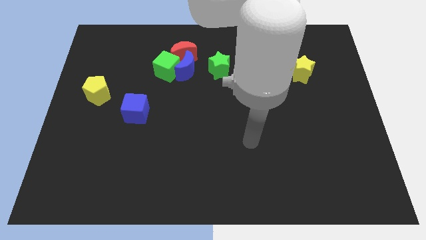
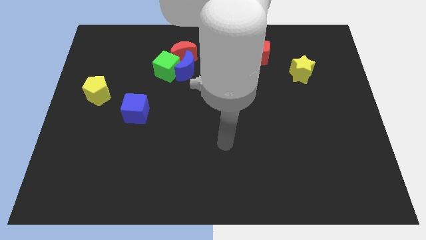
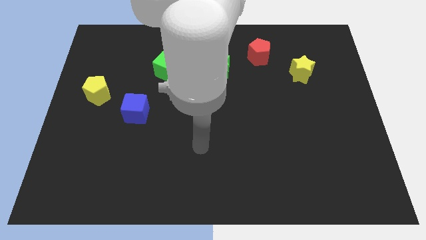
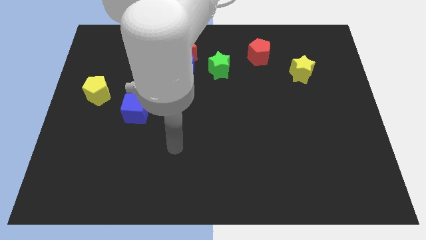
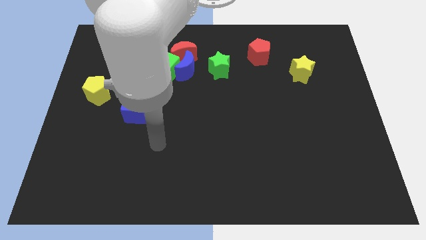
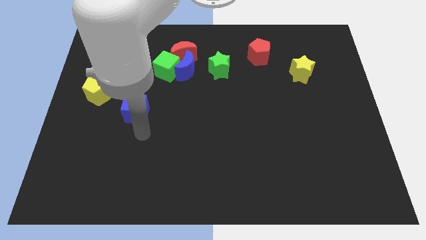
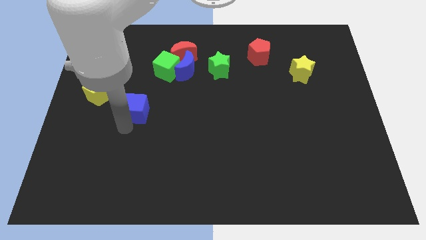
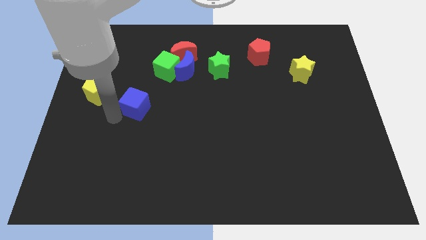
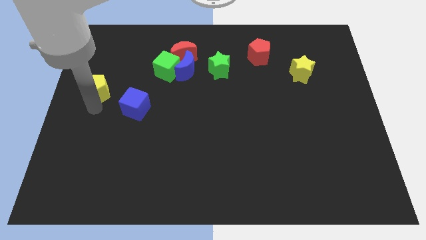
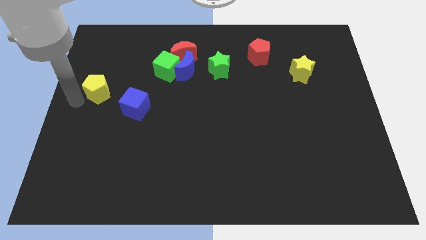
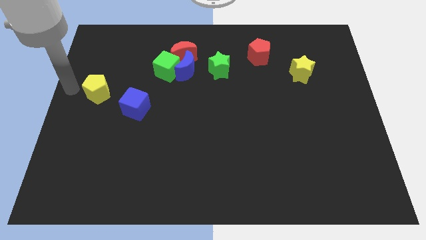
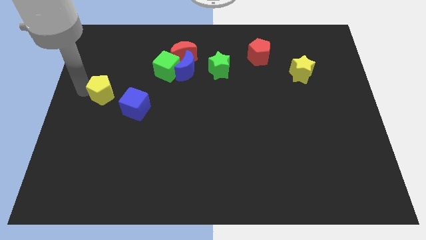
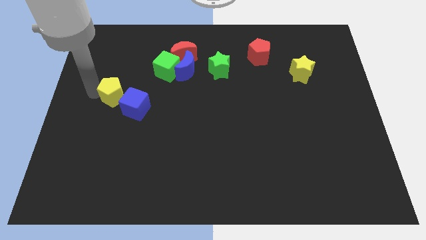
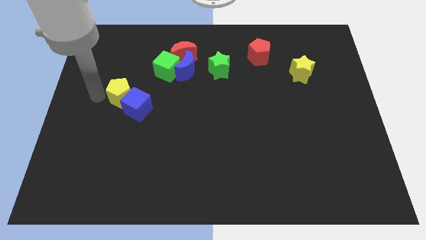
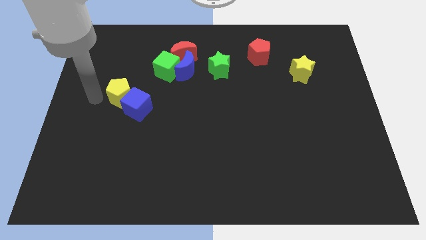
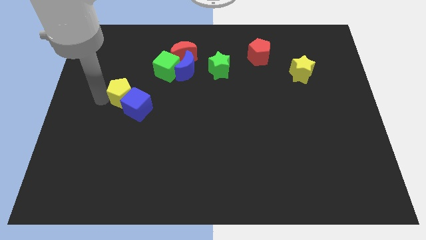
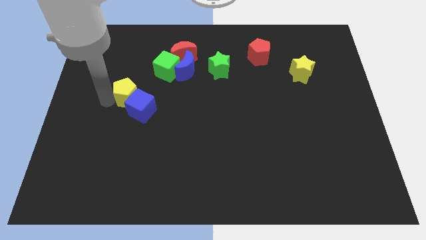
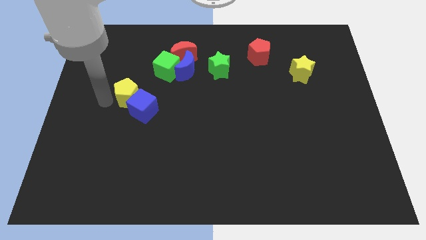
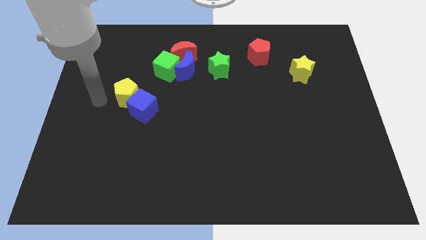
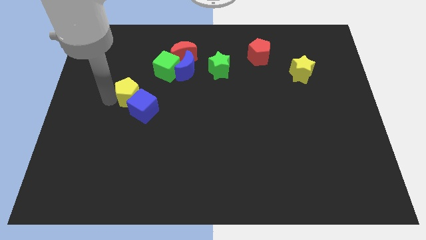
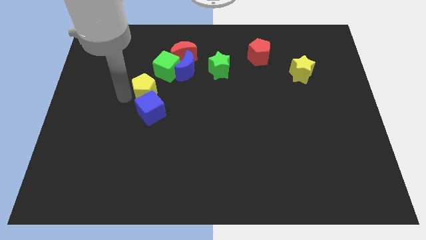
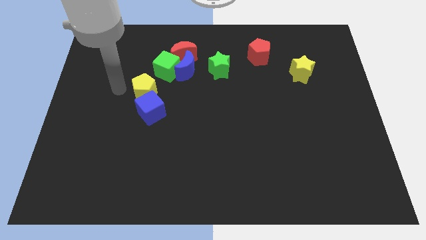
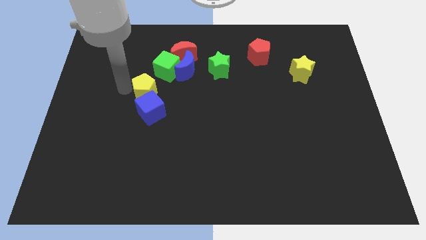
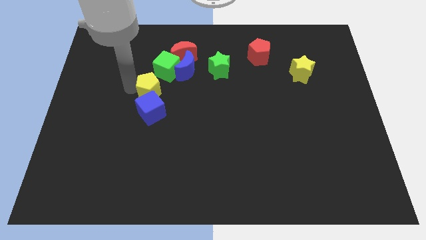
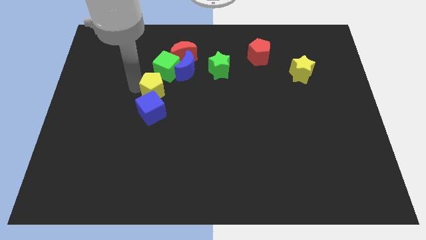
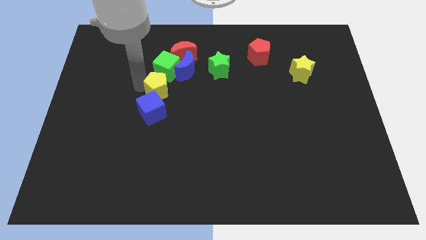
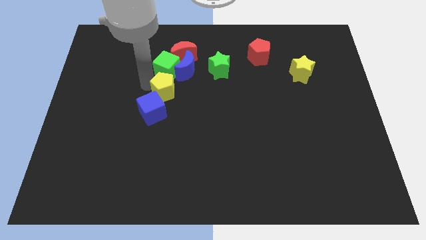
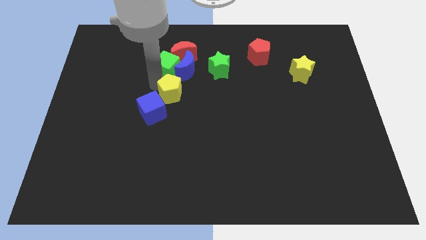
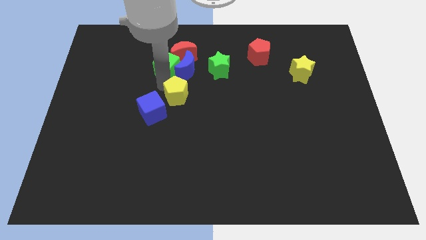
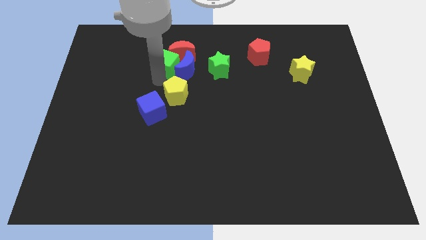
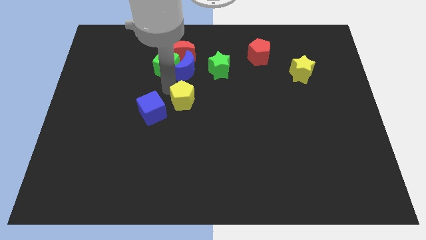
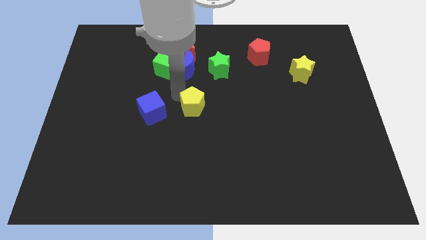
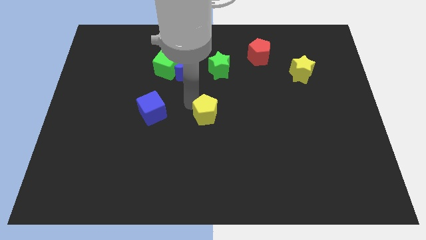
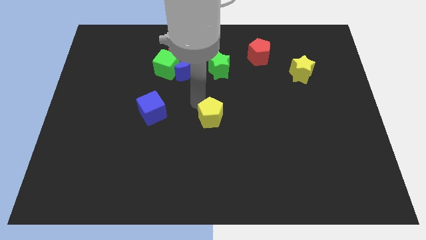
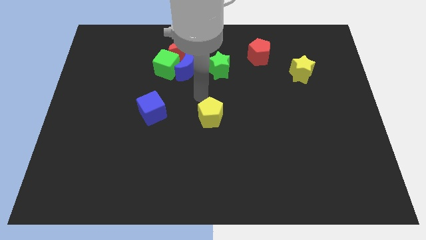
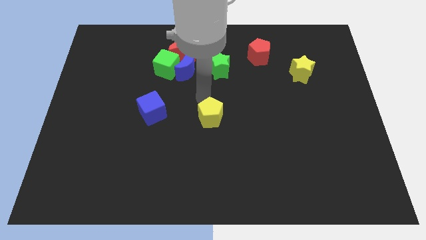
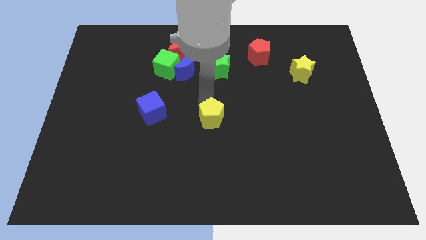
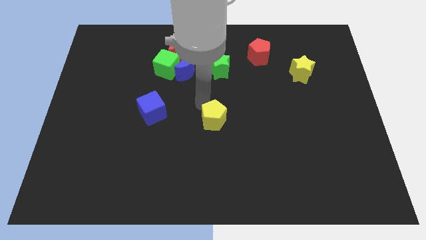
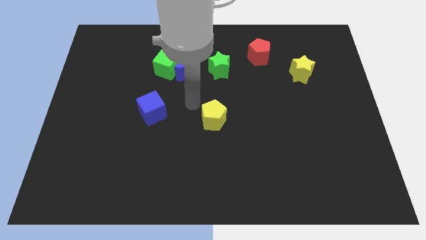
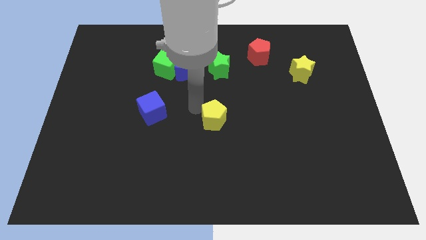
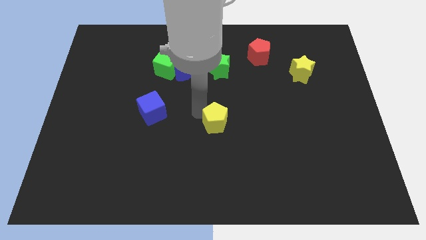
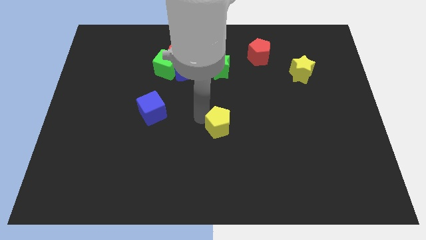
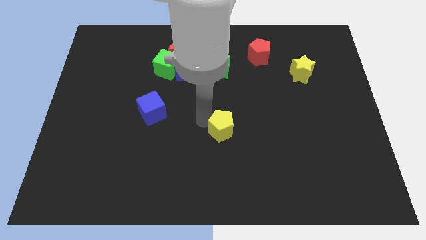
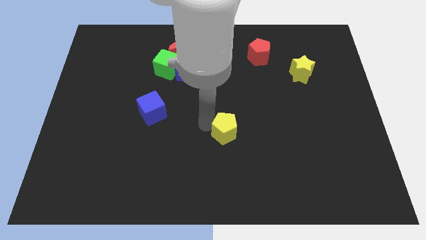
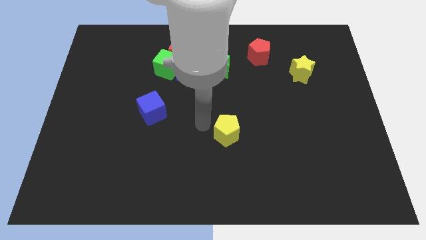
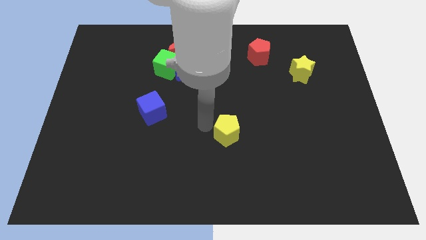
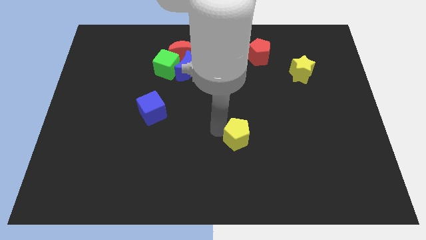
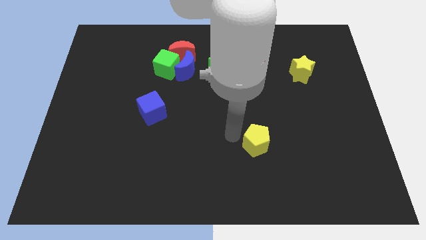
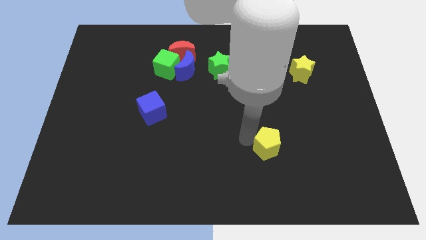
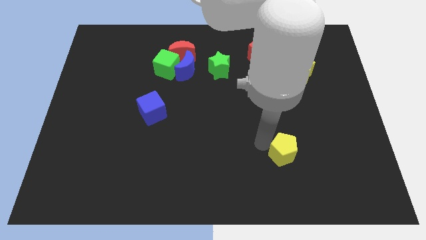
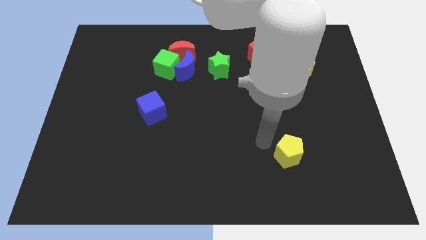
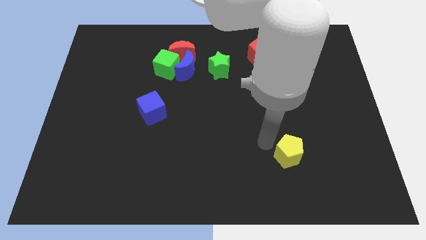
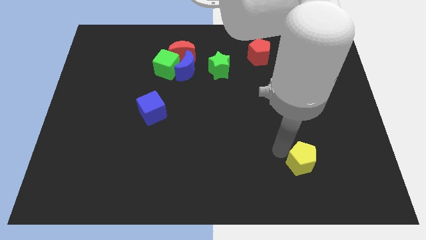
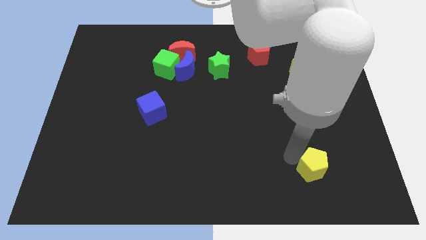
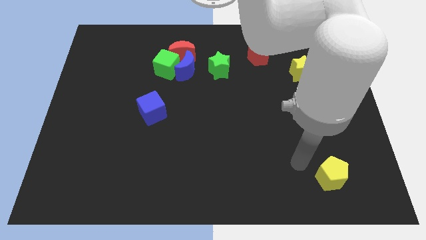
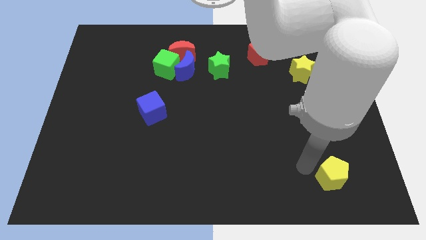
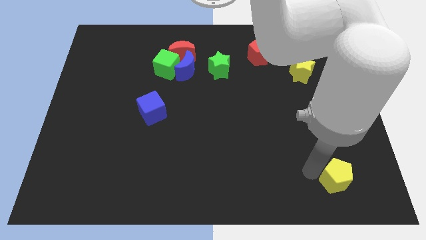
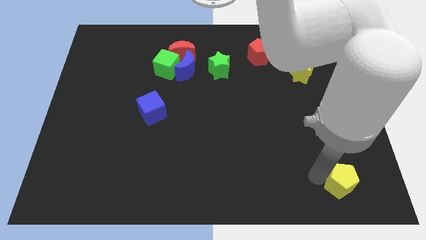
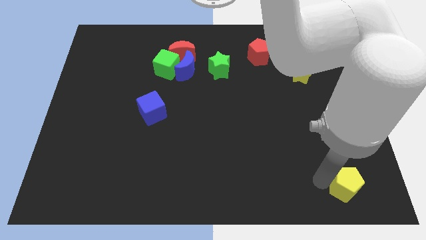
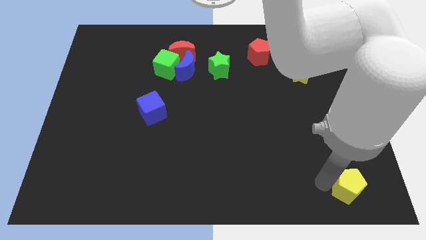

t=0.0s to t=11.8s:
move the yellow pentagon to the lower right corner

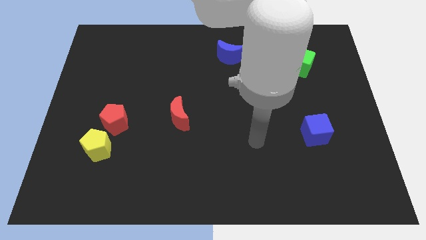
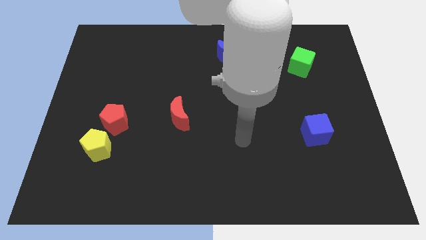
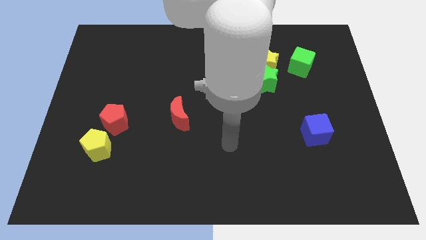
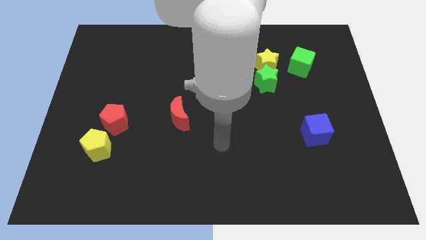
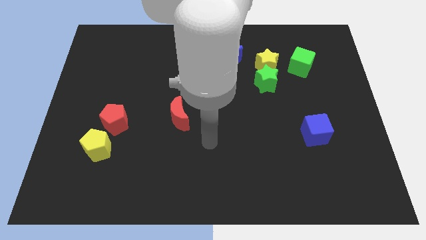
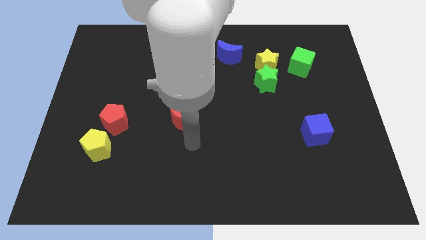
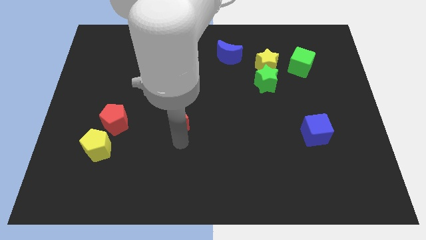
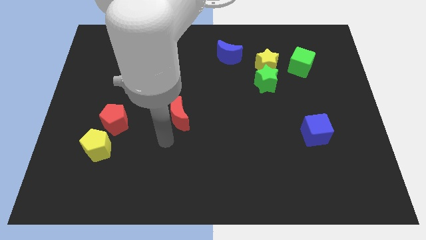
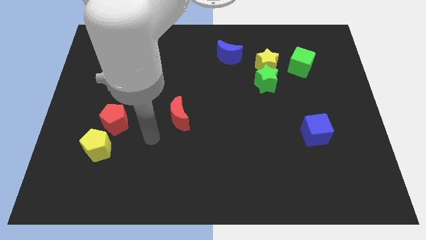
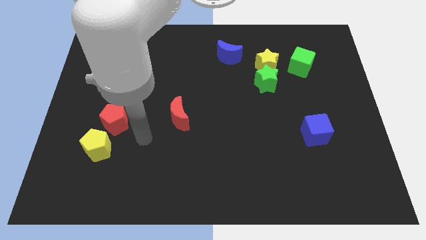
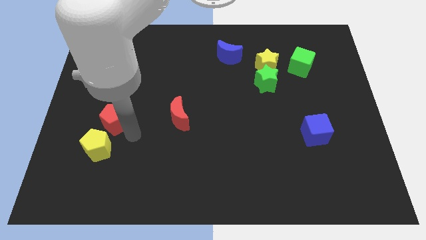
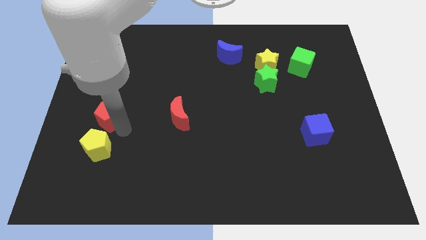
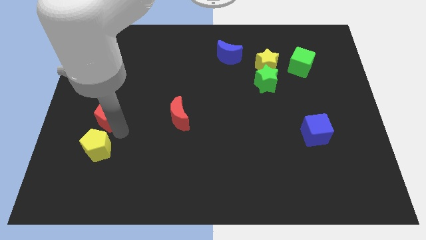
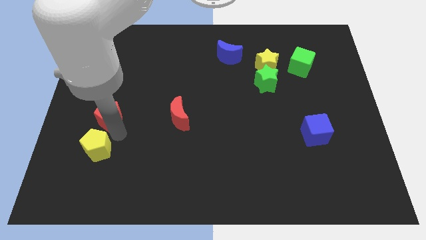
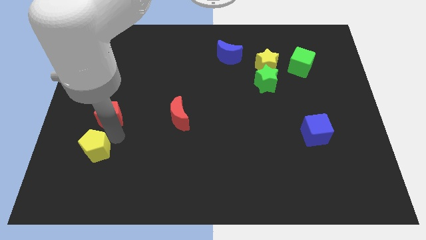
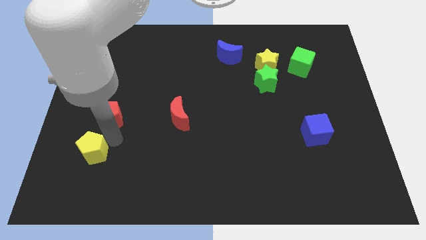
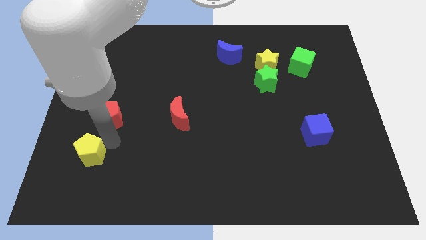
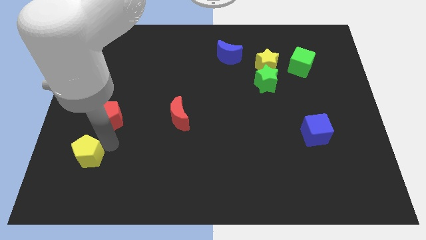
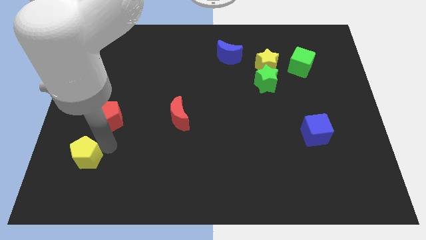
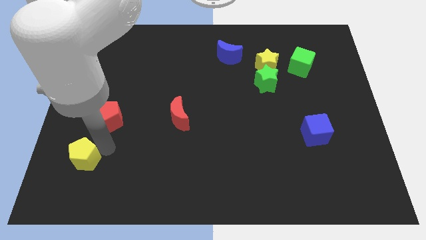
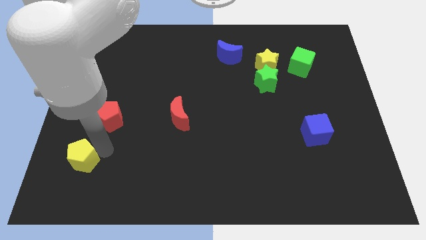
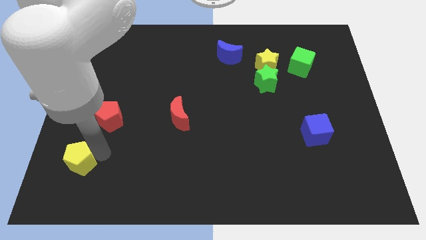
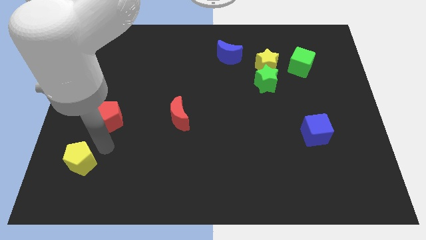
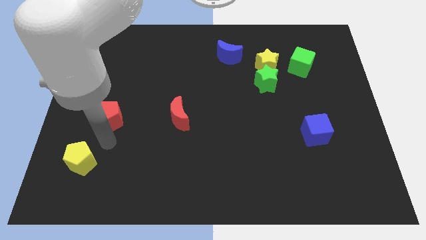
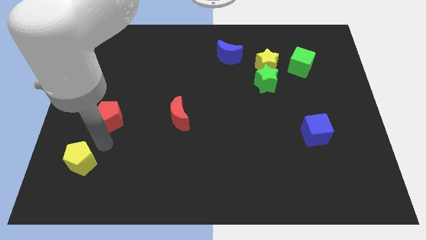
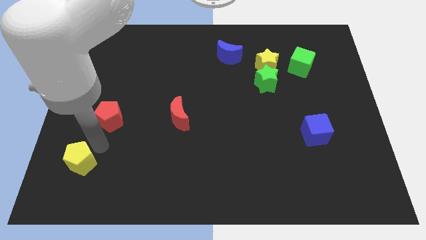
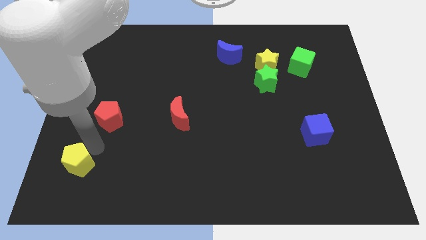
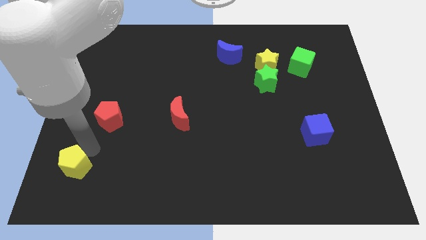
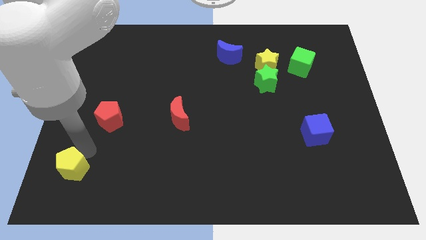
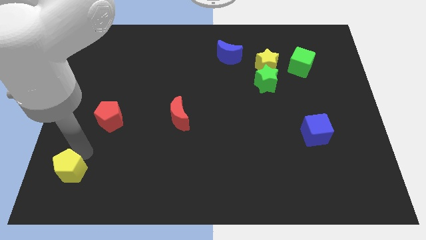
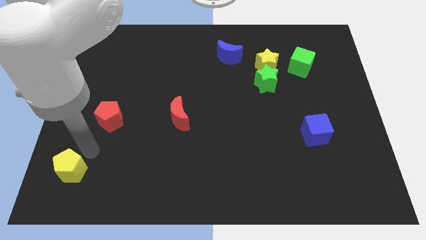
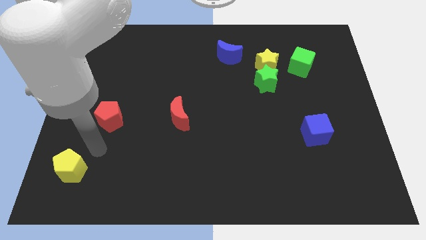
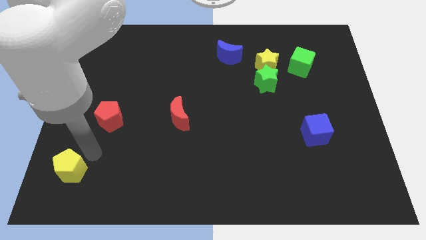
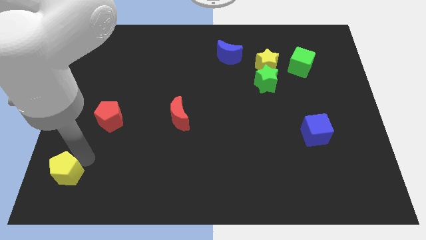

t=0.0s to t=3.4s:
put the yellow pentagon to the bottom left corner
